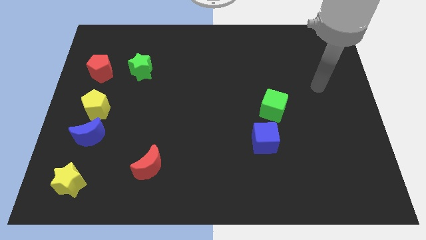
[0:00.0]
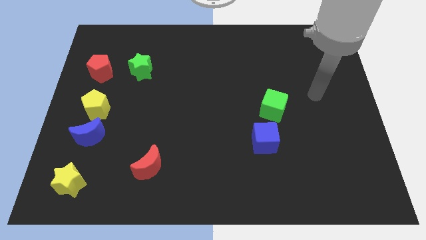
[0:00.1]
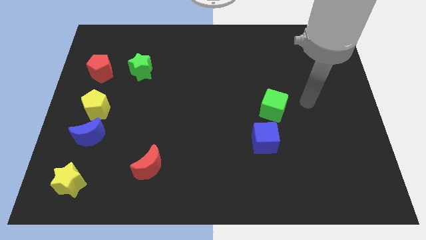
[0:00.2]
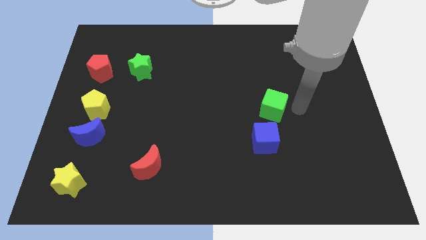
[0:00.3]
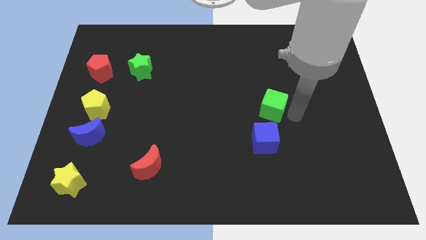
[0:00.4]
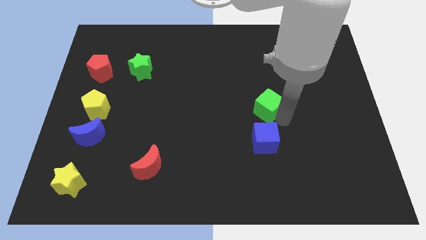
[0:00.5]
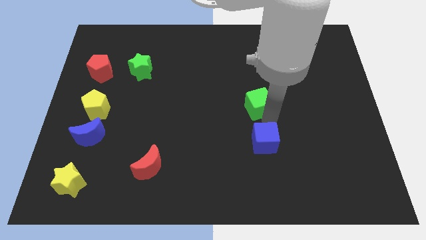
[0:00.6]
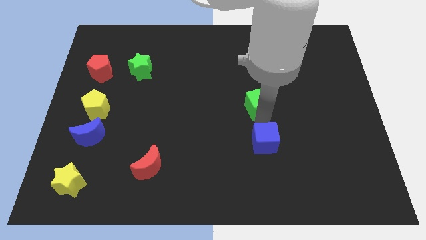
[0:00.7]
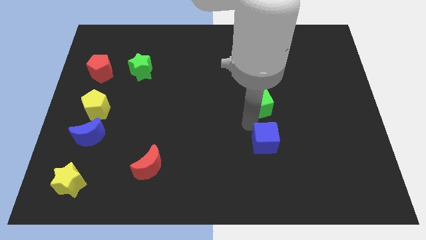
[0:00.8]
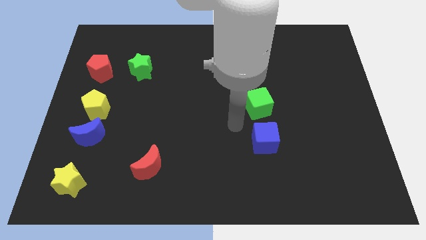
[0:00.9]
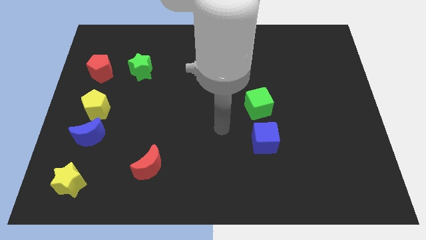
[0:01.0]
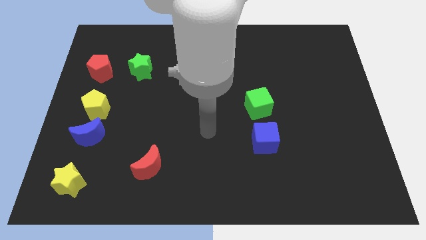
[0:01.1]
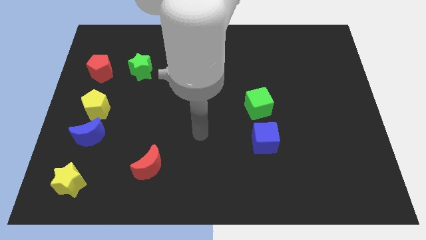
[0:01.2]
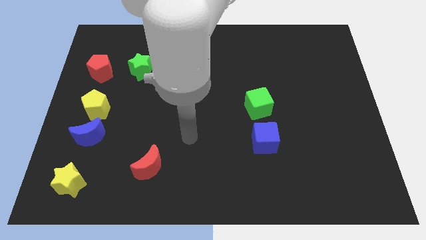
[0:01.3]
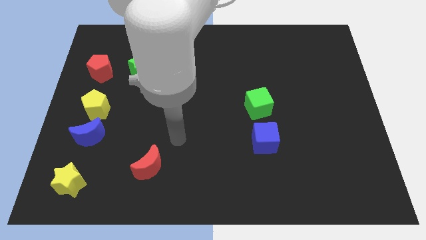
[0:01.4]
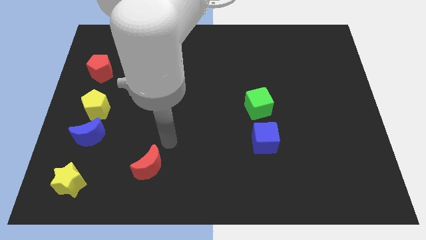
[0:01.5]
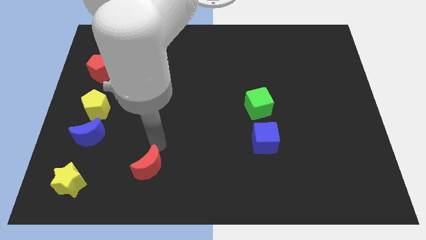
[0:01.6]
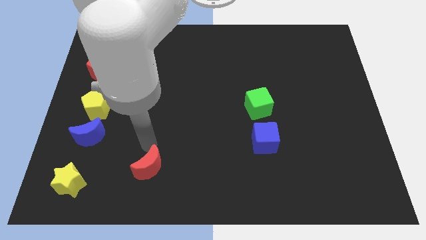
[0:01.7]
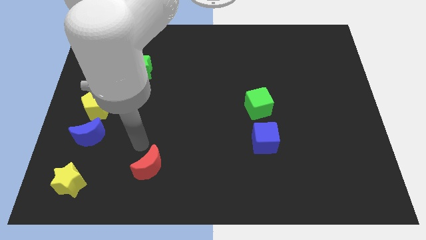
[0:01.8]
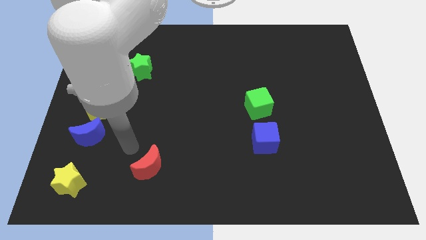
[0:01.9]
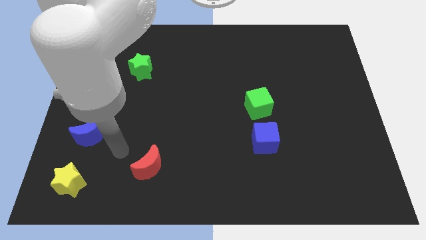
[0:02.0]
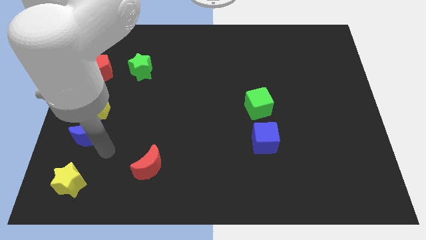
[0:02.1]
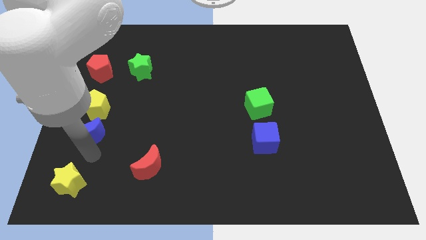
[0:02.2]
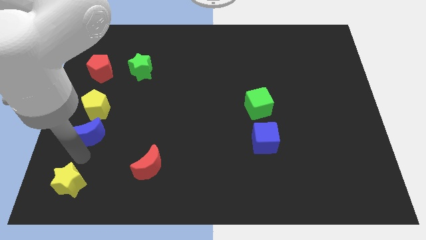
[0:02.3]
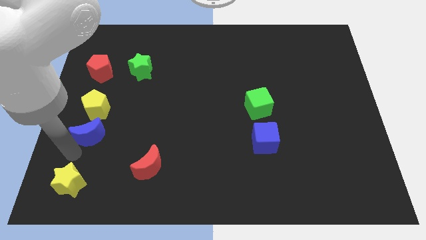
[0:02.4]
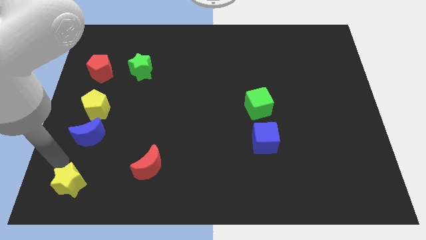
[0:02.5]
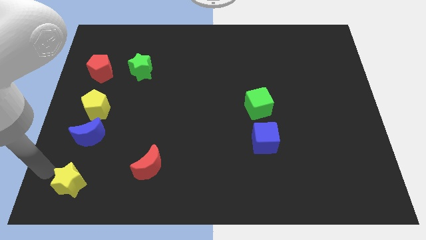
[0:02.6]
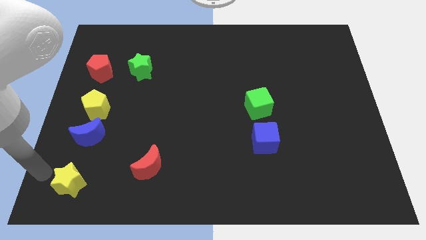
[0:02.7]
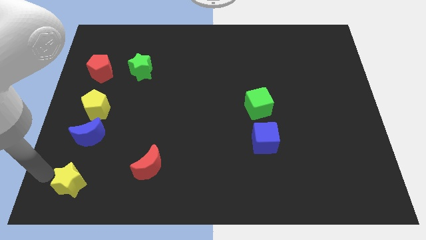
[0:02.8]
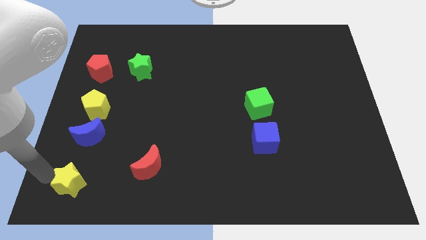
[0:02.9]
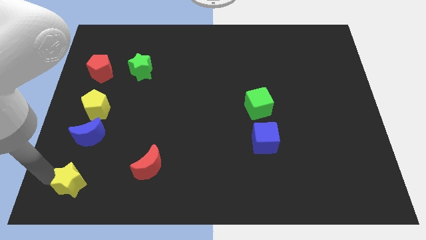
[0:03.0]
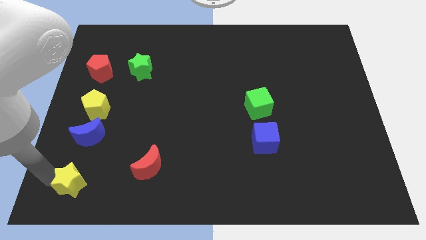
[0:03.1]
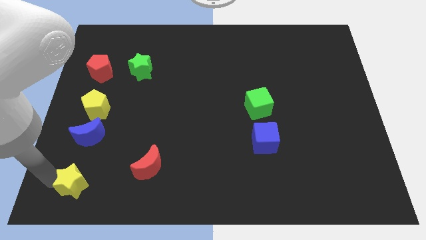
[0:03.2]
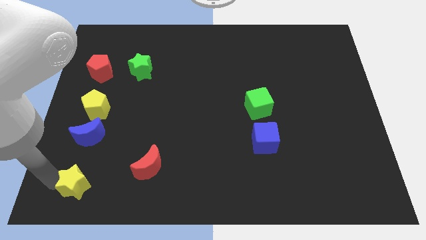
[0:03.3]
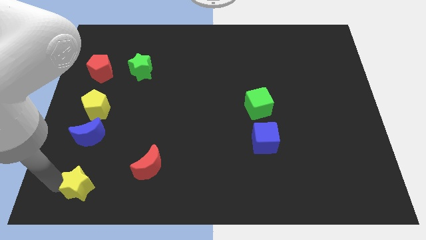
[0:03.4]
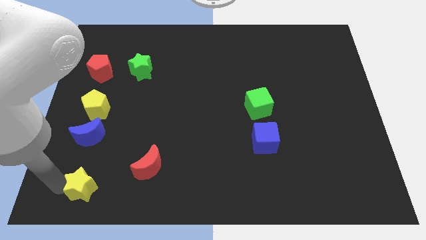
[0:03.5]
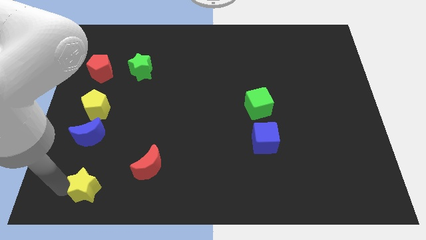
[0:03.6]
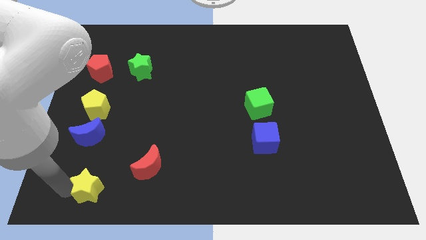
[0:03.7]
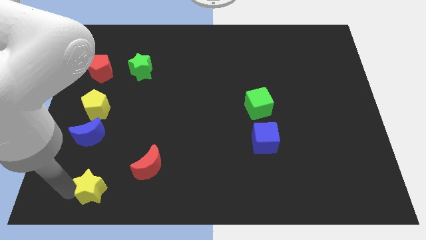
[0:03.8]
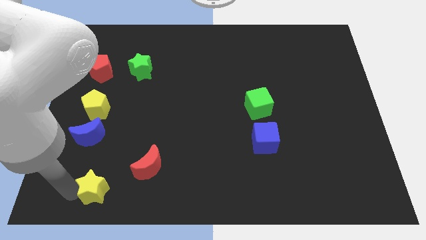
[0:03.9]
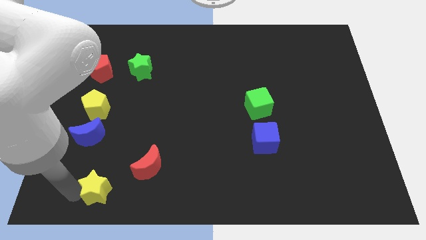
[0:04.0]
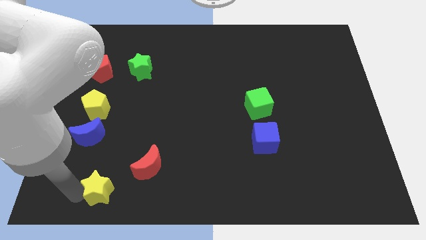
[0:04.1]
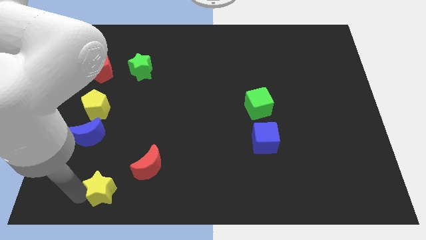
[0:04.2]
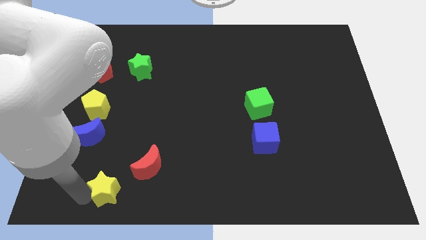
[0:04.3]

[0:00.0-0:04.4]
slide the yellow star a bit right

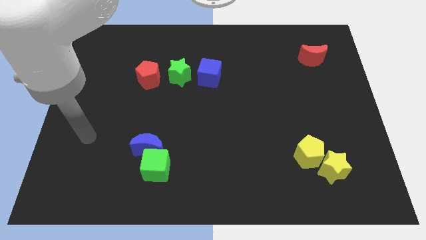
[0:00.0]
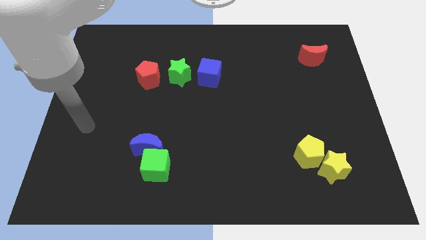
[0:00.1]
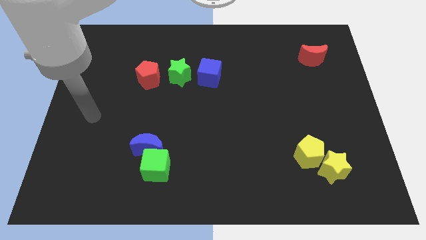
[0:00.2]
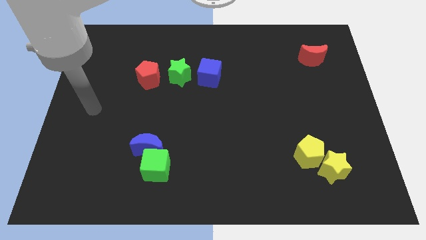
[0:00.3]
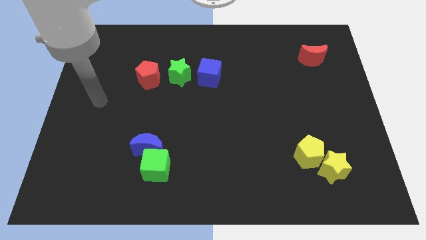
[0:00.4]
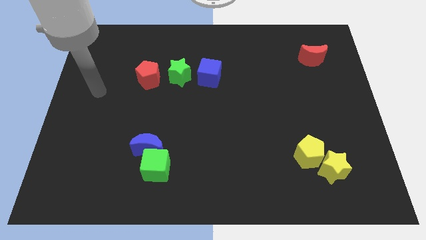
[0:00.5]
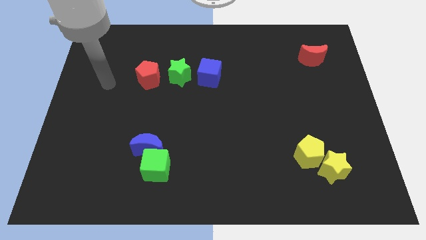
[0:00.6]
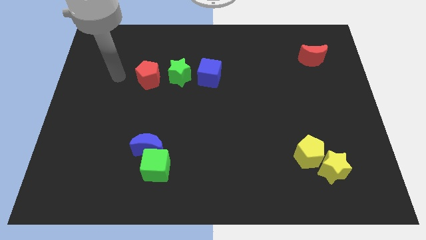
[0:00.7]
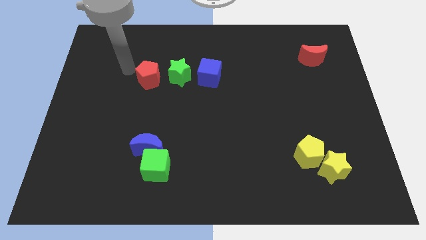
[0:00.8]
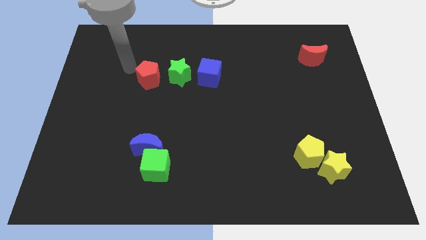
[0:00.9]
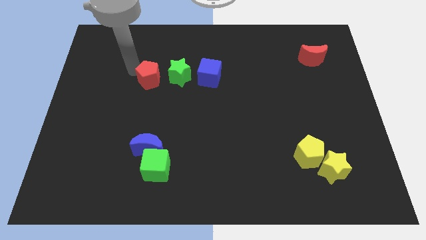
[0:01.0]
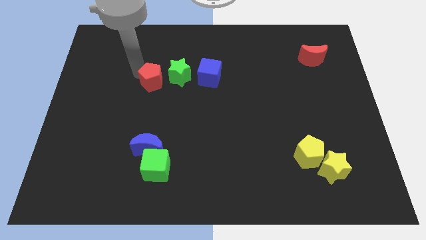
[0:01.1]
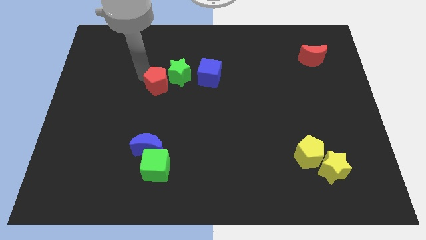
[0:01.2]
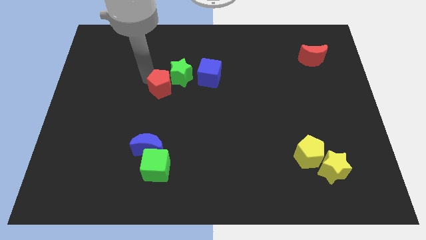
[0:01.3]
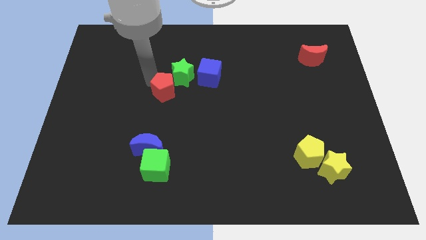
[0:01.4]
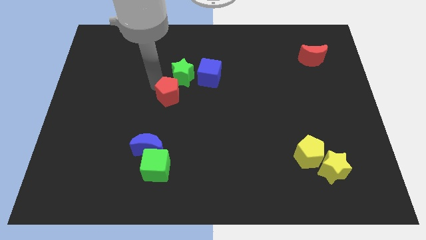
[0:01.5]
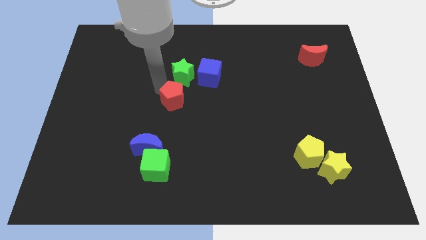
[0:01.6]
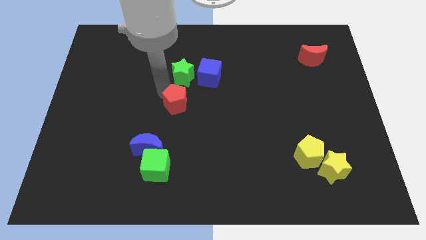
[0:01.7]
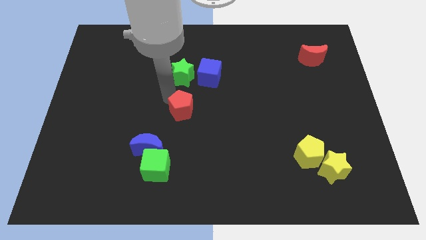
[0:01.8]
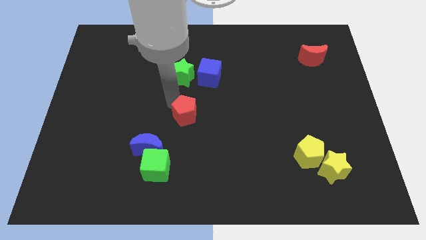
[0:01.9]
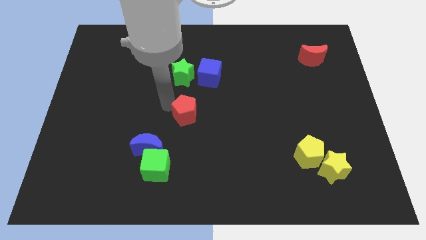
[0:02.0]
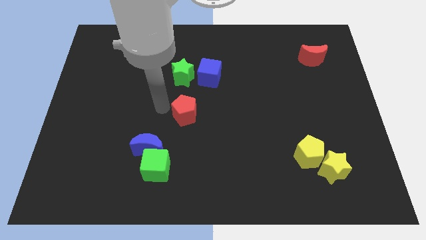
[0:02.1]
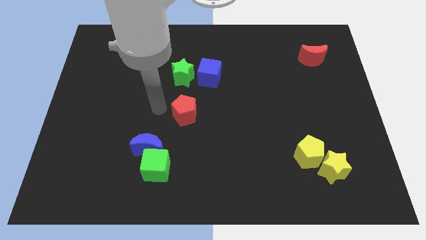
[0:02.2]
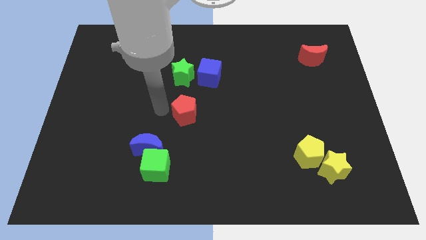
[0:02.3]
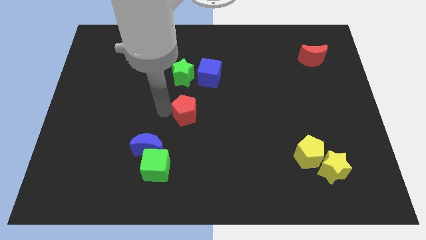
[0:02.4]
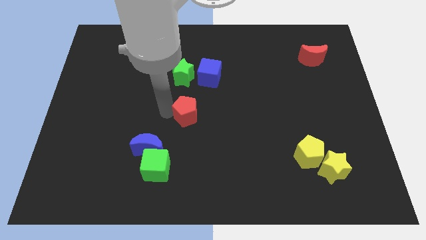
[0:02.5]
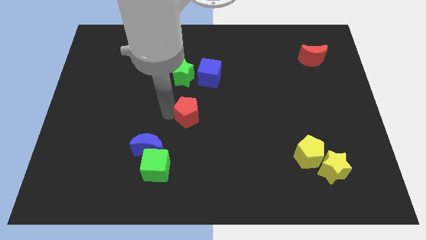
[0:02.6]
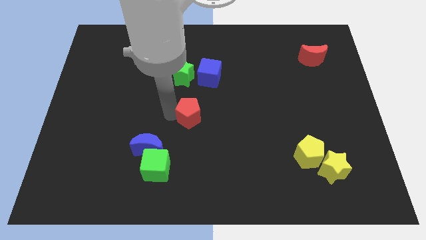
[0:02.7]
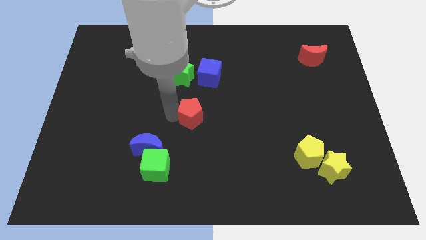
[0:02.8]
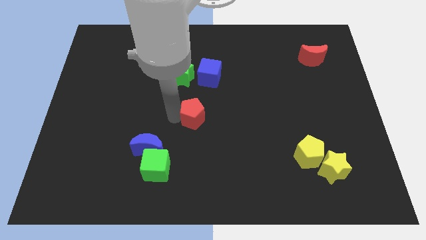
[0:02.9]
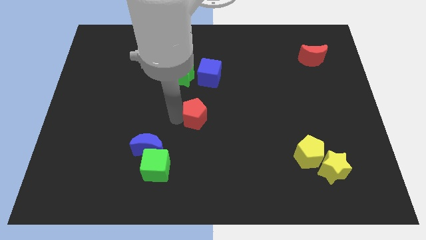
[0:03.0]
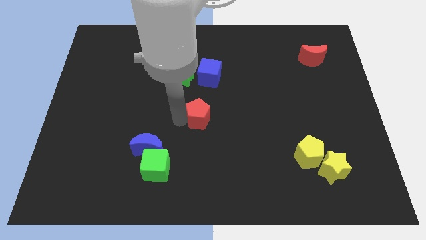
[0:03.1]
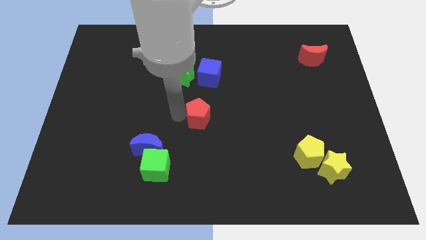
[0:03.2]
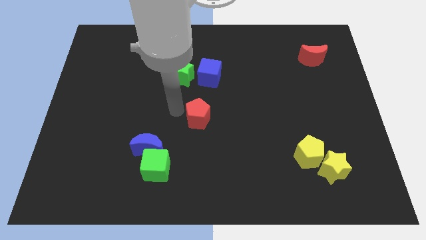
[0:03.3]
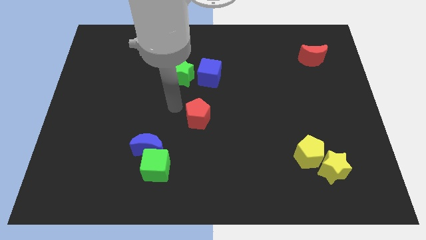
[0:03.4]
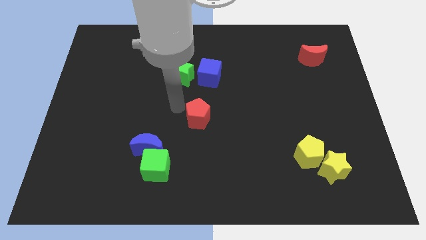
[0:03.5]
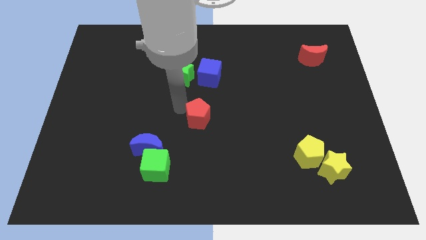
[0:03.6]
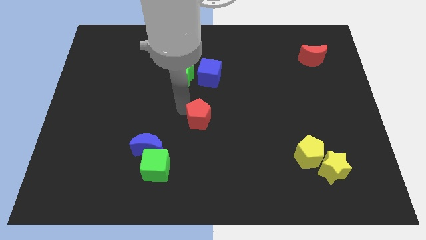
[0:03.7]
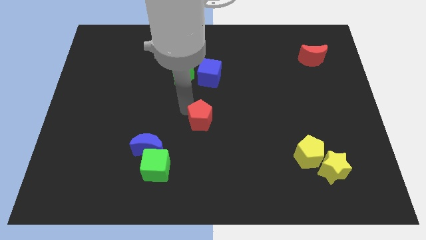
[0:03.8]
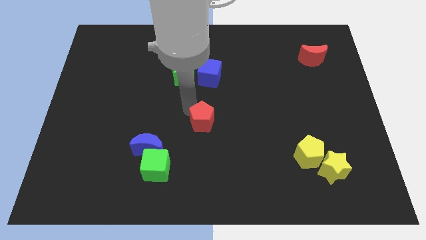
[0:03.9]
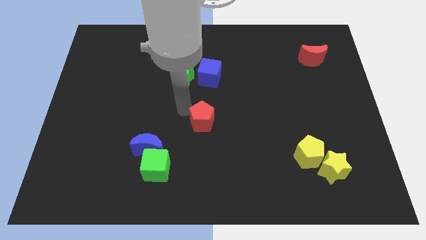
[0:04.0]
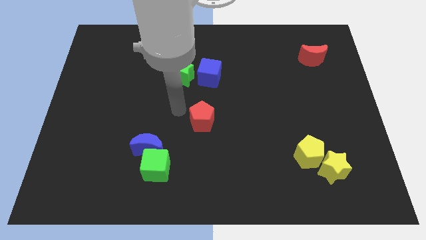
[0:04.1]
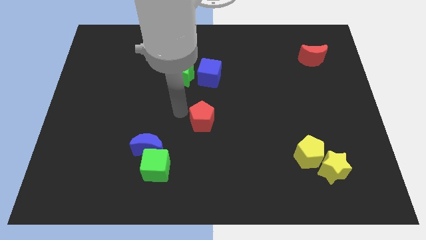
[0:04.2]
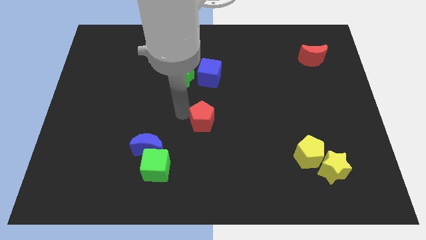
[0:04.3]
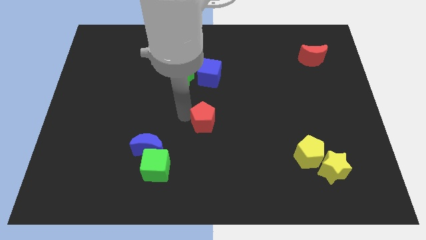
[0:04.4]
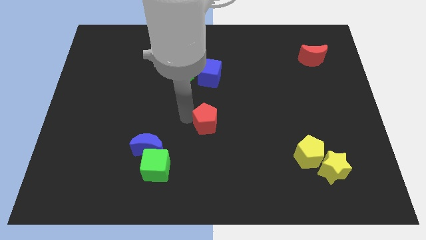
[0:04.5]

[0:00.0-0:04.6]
push the red pentagon diagonally downwards and right
